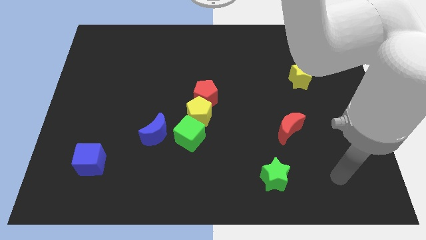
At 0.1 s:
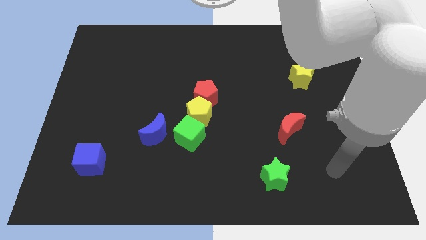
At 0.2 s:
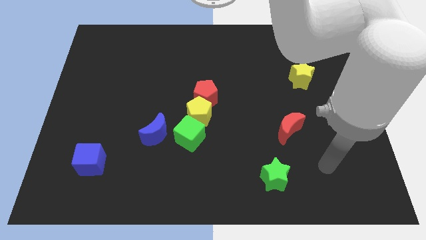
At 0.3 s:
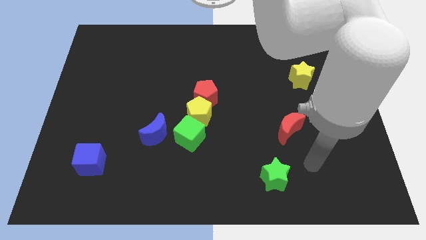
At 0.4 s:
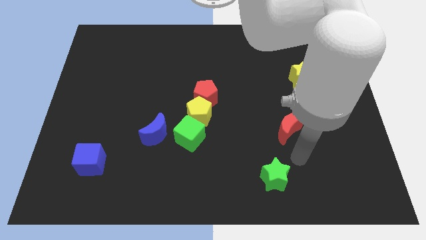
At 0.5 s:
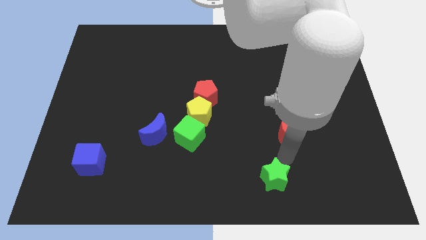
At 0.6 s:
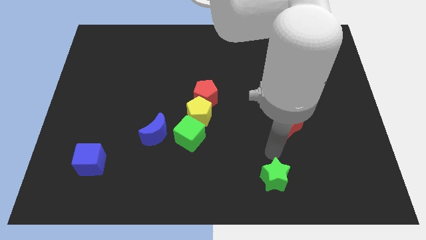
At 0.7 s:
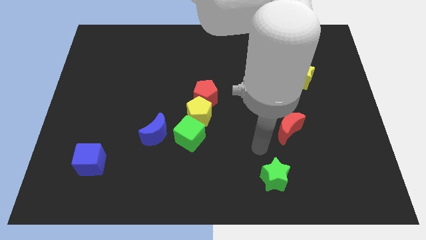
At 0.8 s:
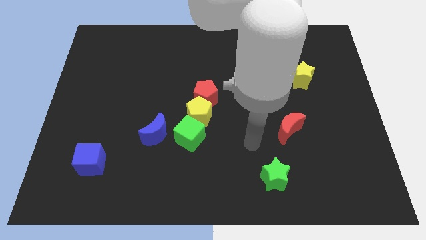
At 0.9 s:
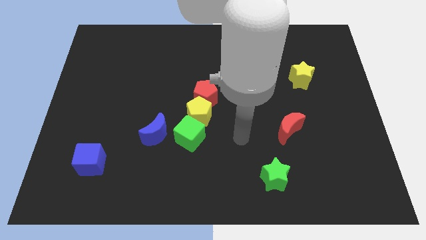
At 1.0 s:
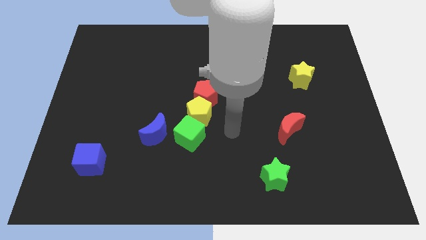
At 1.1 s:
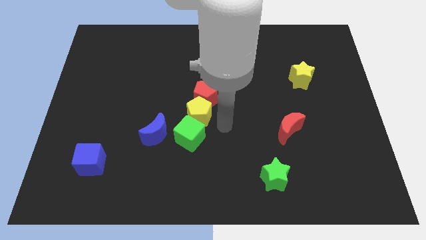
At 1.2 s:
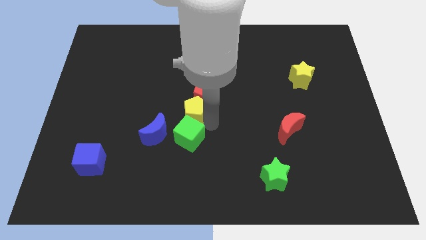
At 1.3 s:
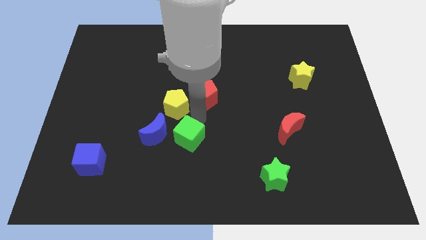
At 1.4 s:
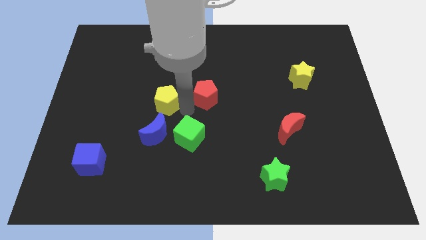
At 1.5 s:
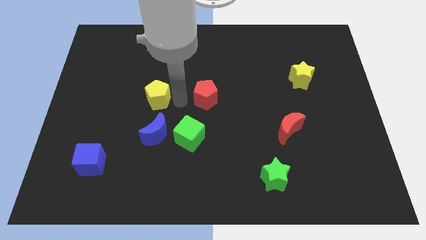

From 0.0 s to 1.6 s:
move the red pentagon away from the yellow pentagon

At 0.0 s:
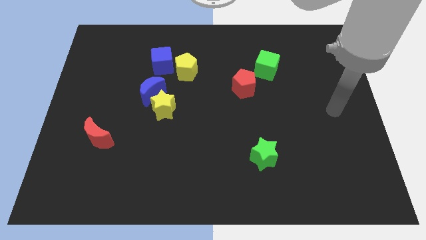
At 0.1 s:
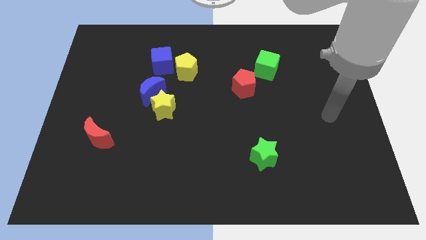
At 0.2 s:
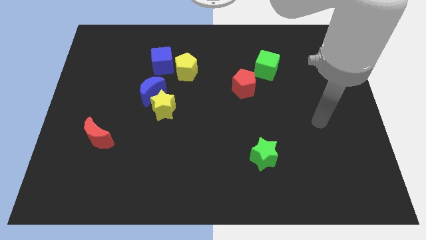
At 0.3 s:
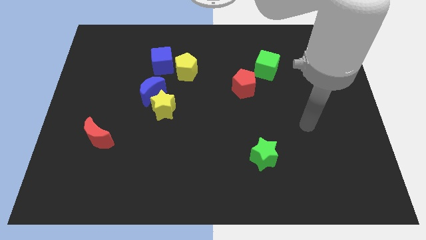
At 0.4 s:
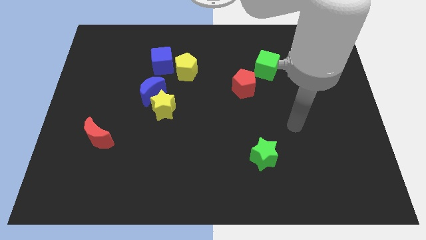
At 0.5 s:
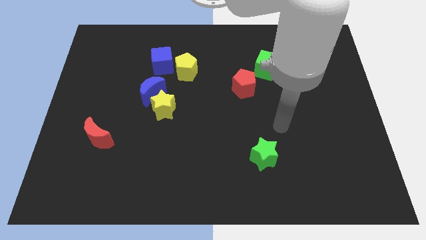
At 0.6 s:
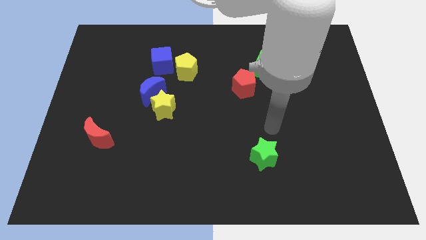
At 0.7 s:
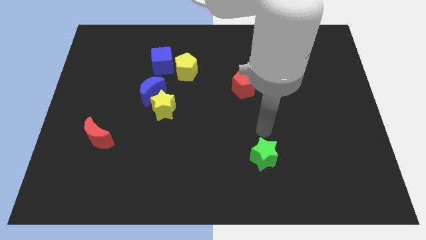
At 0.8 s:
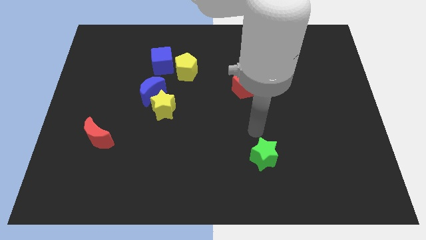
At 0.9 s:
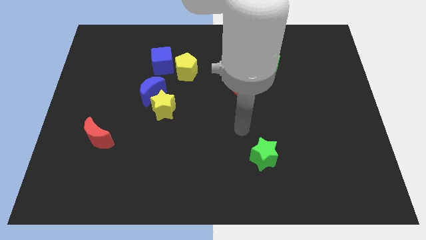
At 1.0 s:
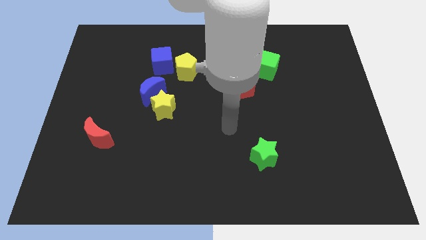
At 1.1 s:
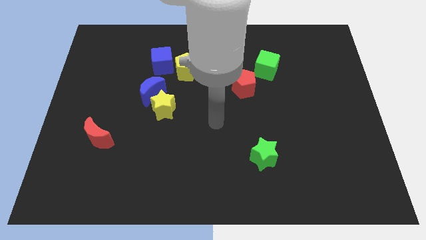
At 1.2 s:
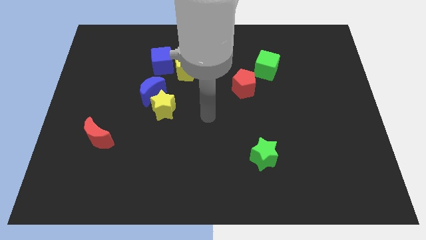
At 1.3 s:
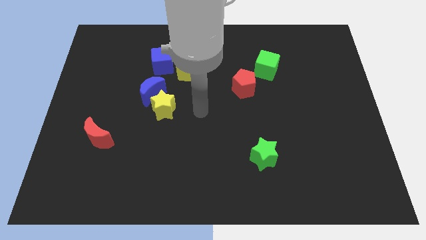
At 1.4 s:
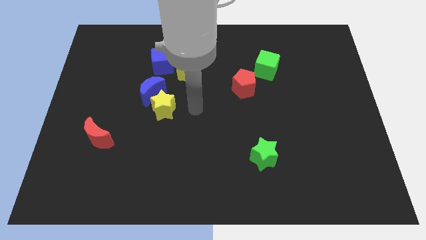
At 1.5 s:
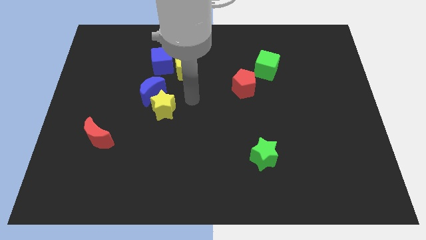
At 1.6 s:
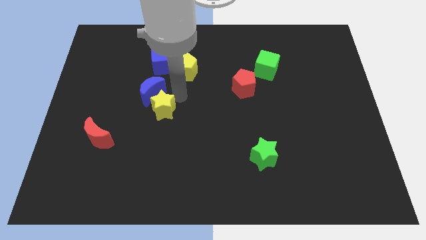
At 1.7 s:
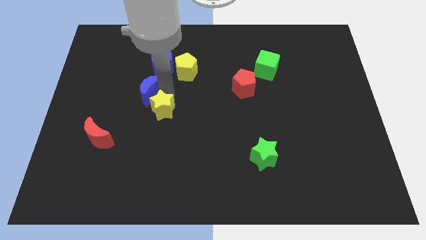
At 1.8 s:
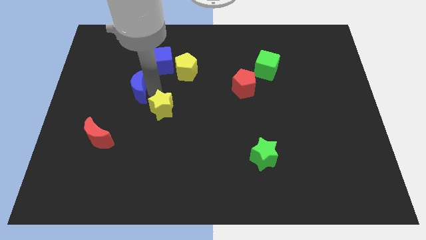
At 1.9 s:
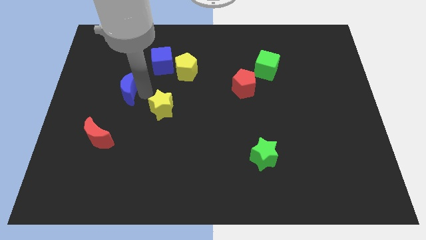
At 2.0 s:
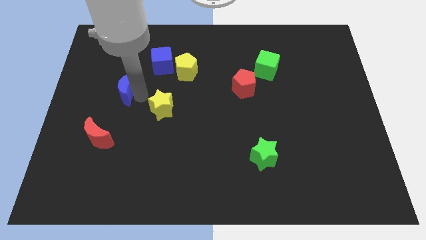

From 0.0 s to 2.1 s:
move the yellow star away from the blue moon

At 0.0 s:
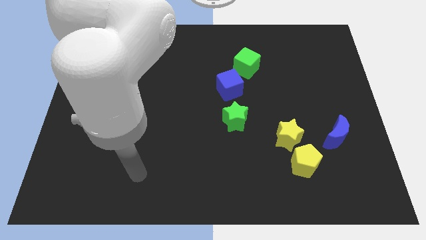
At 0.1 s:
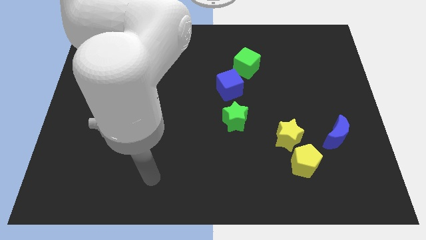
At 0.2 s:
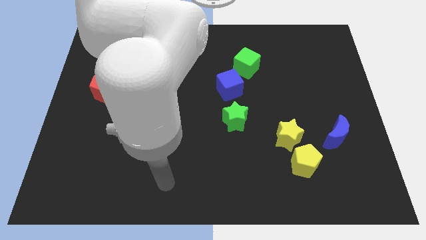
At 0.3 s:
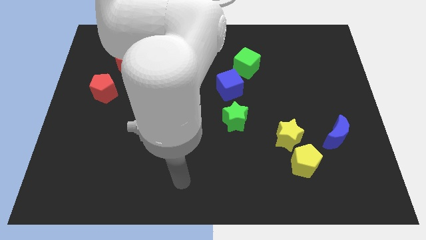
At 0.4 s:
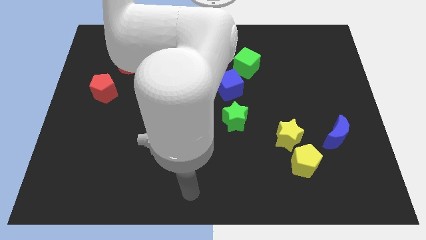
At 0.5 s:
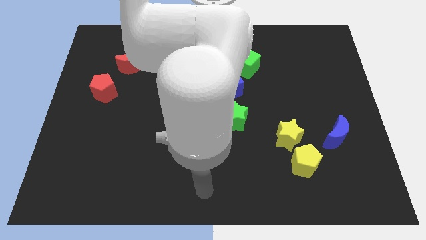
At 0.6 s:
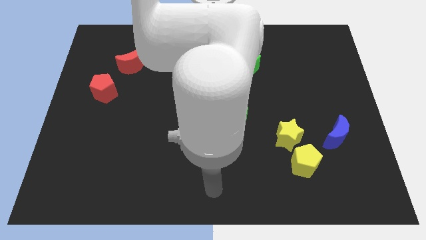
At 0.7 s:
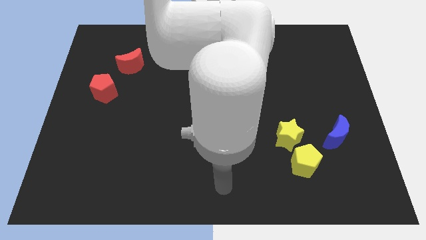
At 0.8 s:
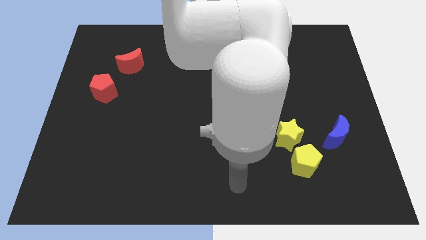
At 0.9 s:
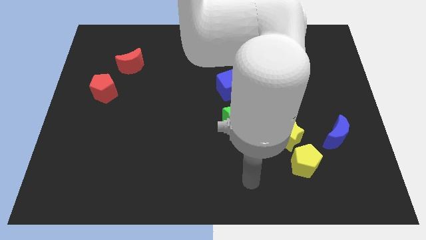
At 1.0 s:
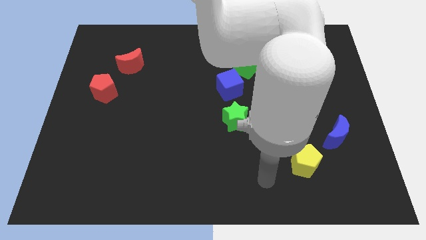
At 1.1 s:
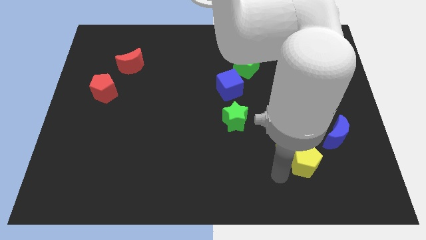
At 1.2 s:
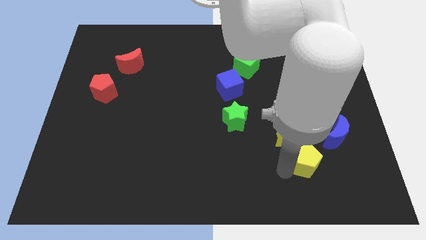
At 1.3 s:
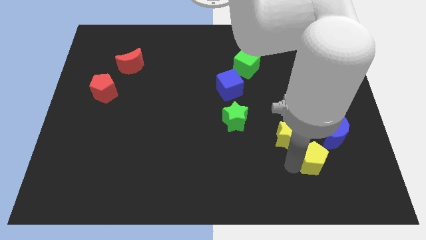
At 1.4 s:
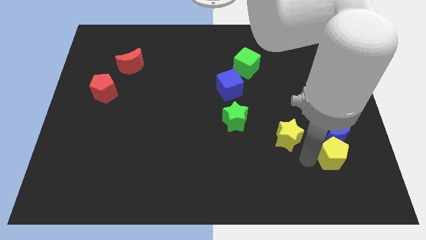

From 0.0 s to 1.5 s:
move the yellow star away from the yellow pentagon

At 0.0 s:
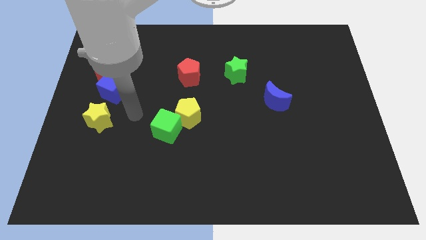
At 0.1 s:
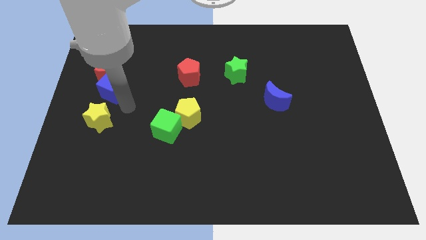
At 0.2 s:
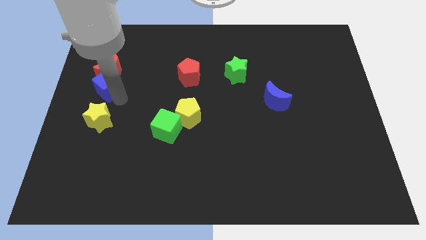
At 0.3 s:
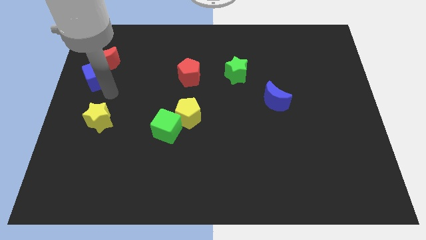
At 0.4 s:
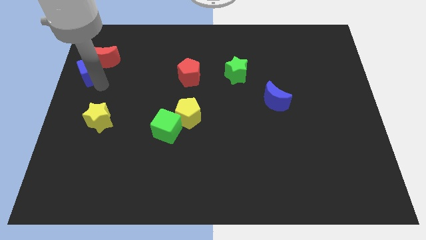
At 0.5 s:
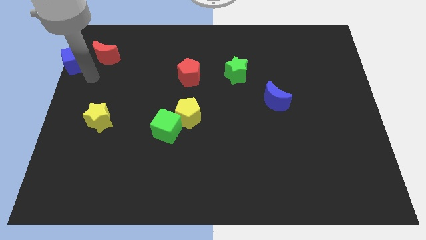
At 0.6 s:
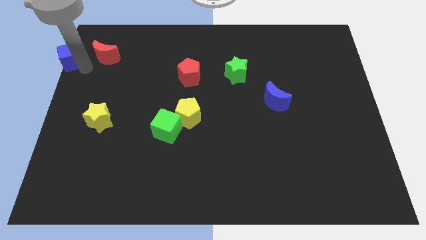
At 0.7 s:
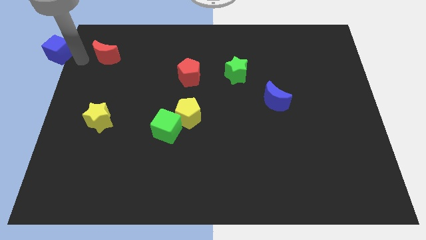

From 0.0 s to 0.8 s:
move the red moon away from the blue cube

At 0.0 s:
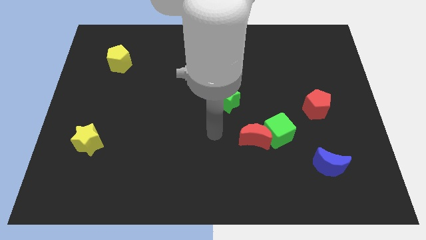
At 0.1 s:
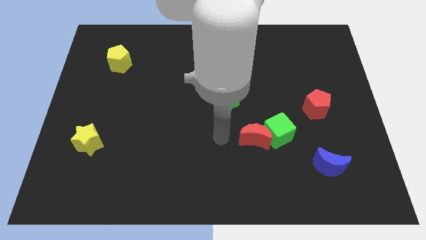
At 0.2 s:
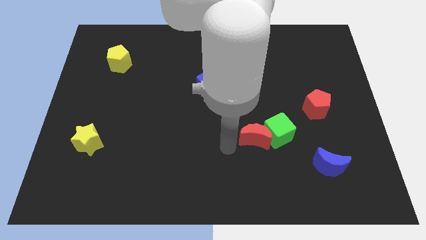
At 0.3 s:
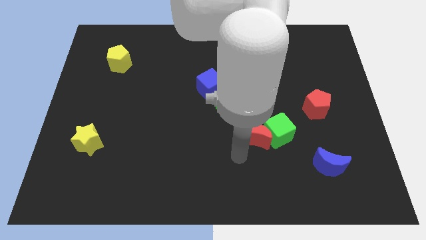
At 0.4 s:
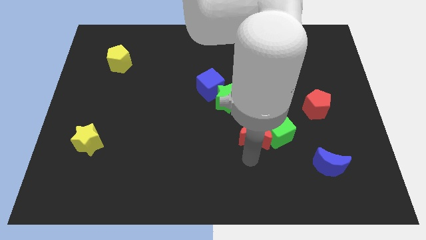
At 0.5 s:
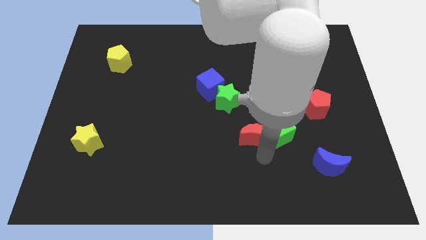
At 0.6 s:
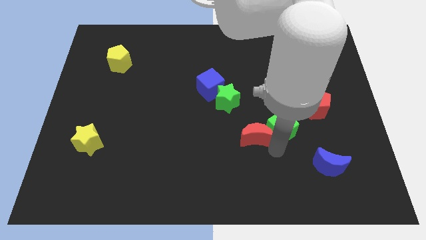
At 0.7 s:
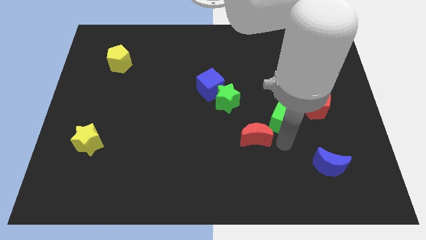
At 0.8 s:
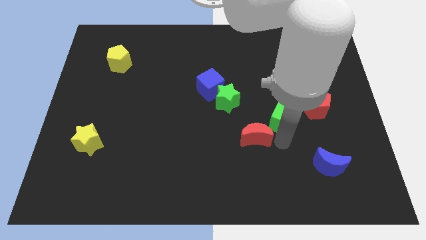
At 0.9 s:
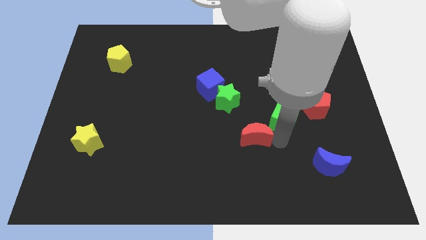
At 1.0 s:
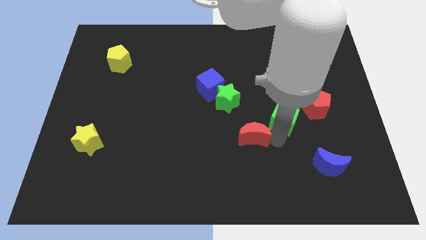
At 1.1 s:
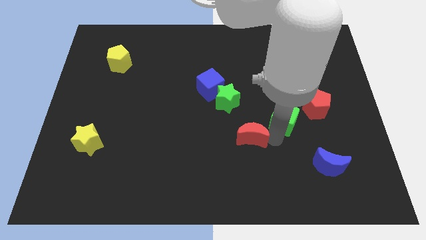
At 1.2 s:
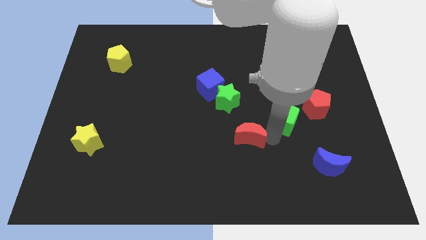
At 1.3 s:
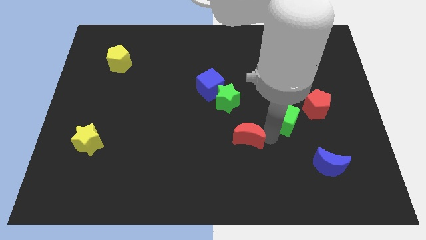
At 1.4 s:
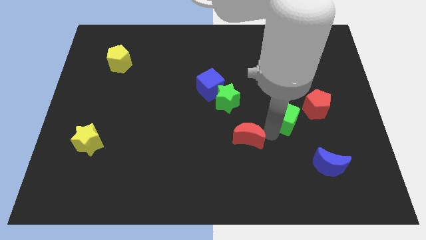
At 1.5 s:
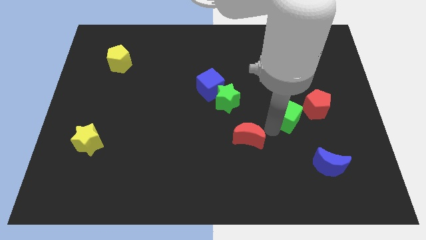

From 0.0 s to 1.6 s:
separate the red moon from the green cube

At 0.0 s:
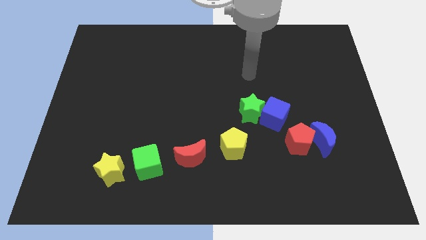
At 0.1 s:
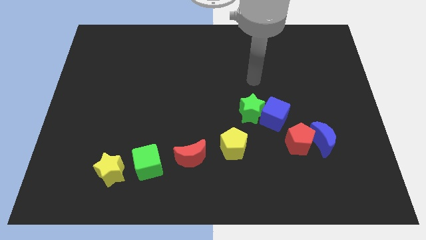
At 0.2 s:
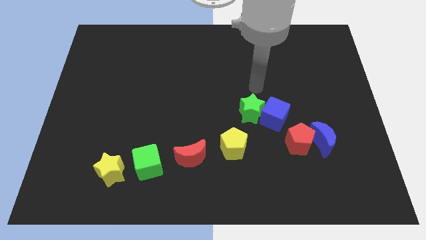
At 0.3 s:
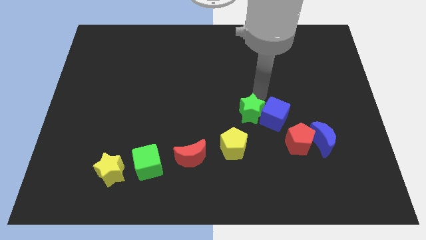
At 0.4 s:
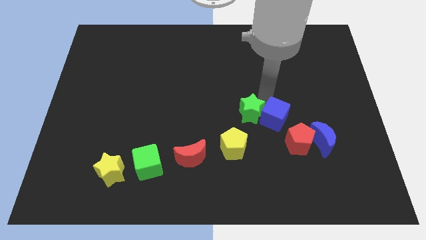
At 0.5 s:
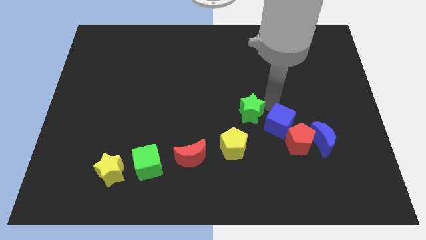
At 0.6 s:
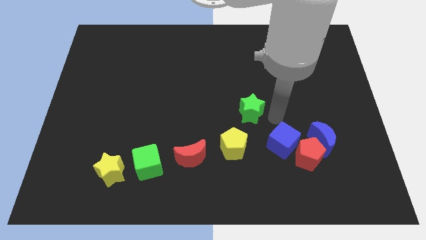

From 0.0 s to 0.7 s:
separate the green star from the blue cube

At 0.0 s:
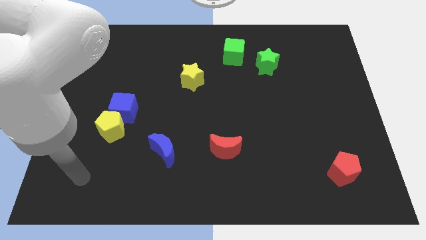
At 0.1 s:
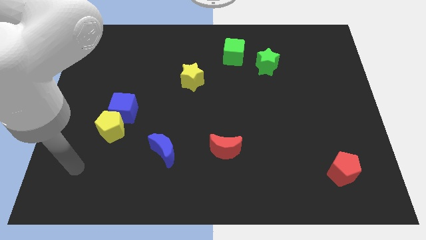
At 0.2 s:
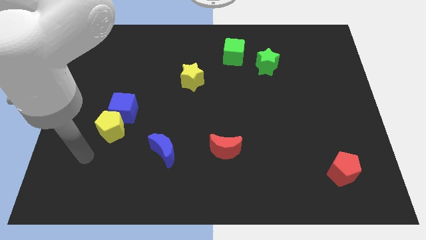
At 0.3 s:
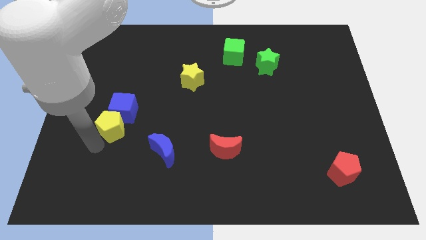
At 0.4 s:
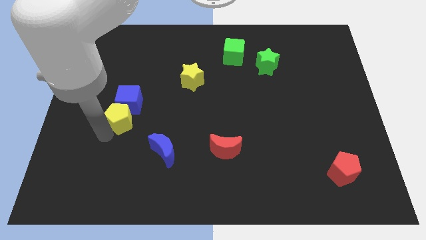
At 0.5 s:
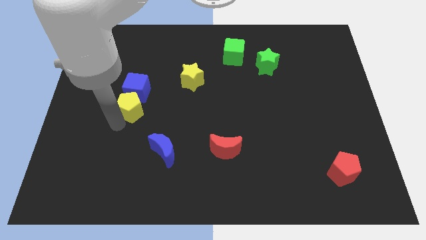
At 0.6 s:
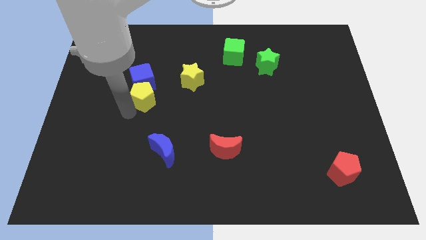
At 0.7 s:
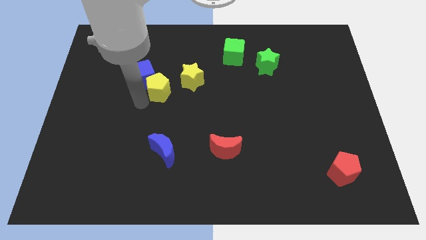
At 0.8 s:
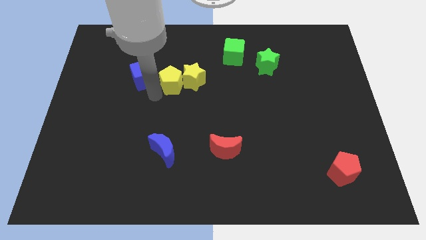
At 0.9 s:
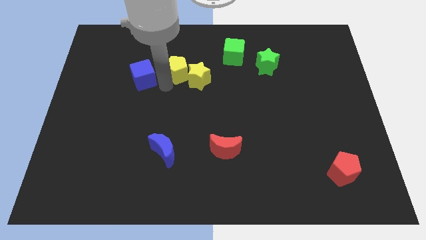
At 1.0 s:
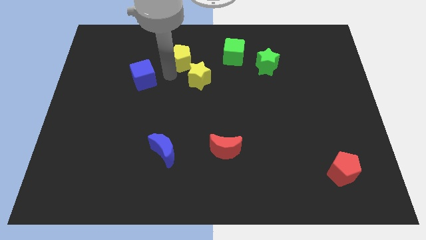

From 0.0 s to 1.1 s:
separate the blue cube from the yellow pentagon
